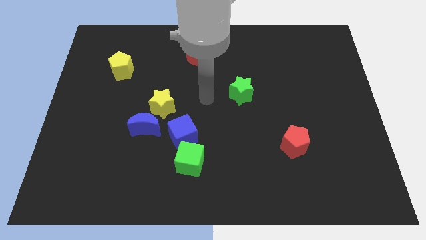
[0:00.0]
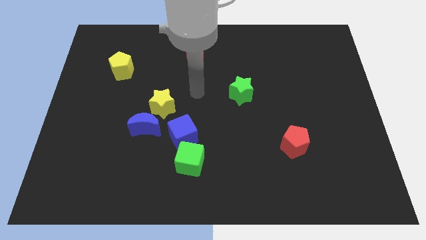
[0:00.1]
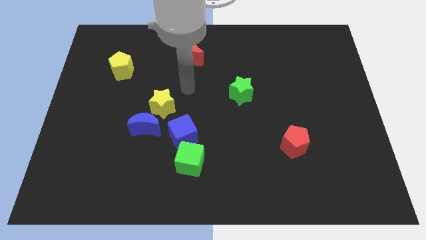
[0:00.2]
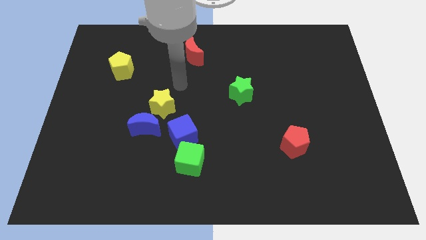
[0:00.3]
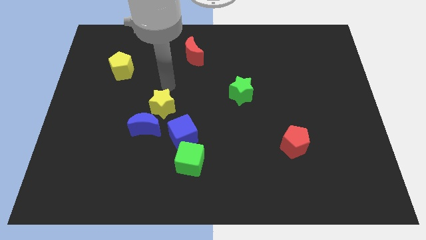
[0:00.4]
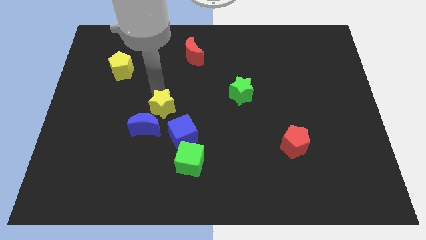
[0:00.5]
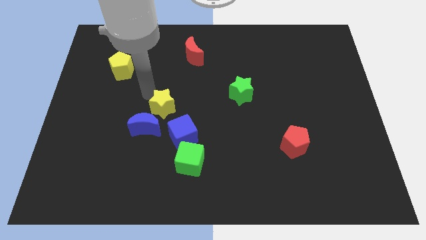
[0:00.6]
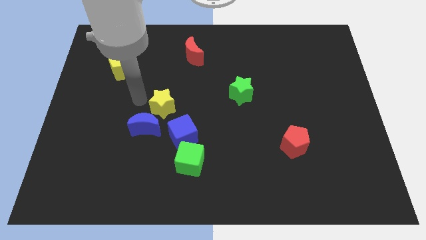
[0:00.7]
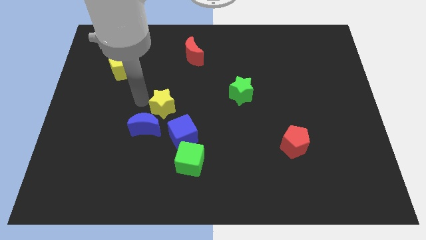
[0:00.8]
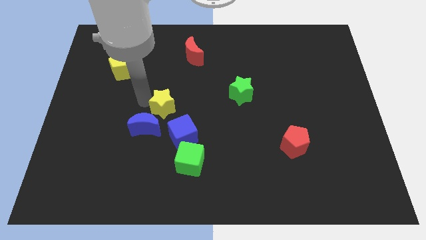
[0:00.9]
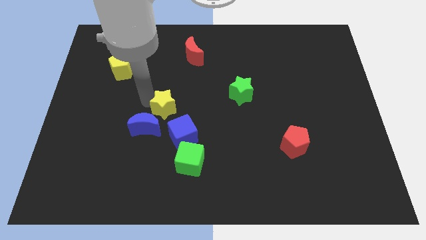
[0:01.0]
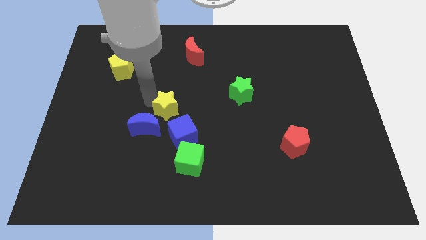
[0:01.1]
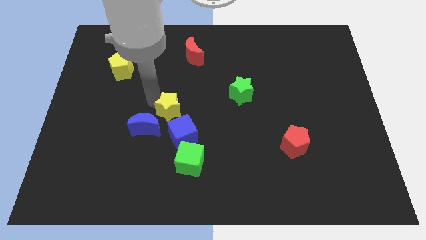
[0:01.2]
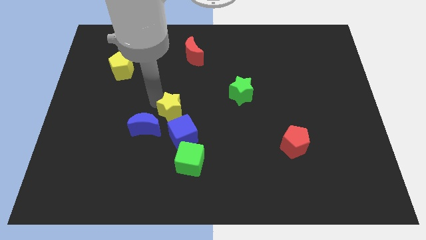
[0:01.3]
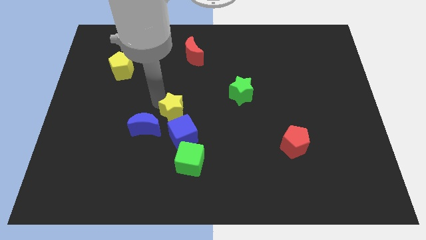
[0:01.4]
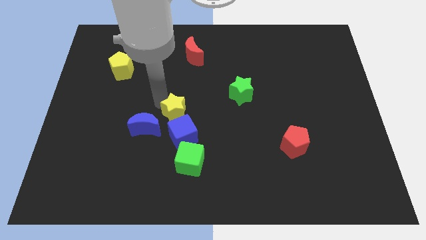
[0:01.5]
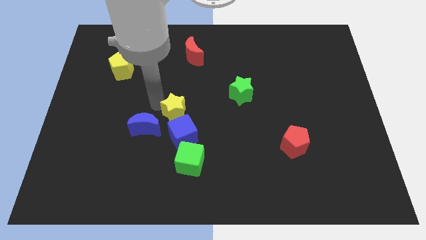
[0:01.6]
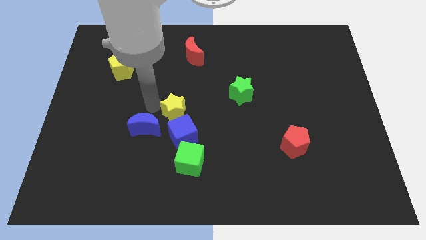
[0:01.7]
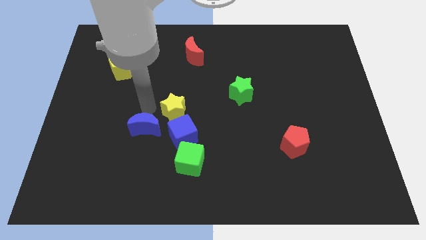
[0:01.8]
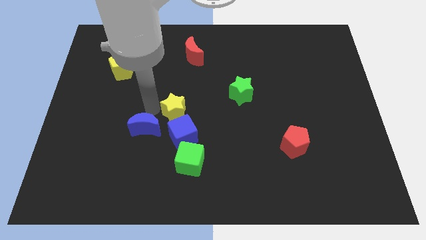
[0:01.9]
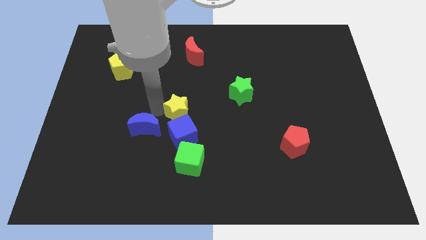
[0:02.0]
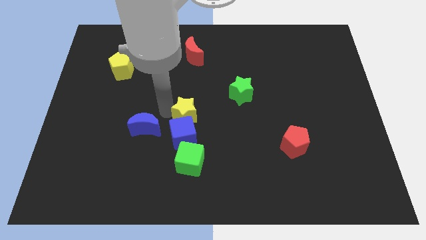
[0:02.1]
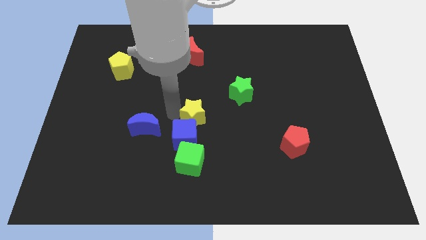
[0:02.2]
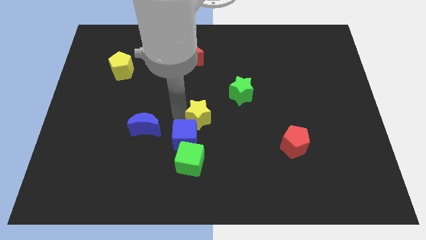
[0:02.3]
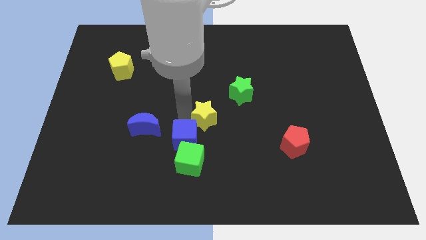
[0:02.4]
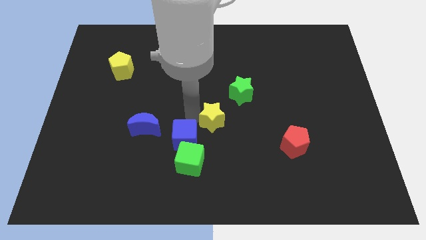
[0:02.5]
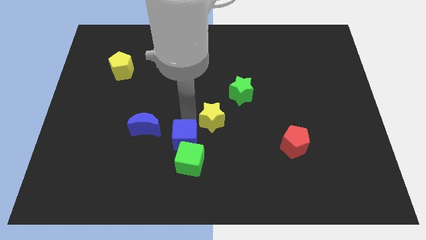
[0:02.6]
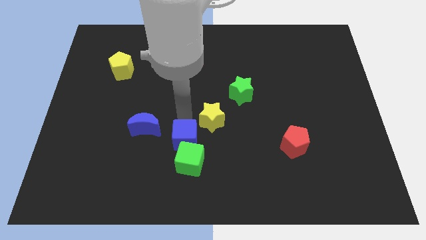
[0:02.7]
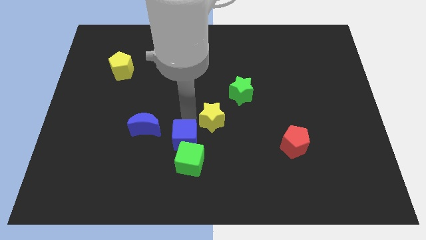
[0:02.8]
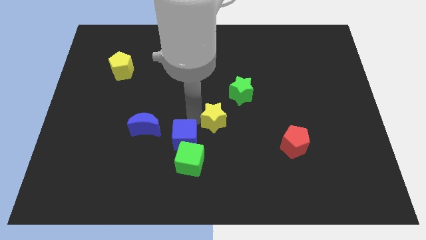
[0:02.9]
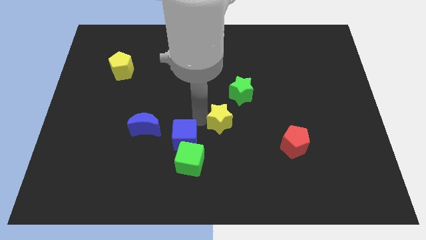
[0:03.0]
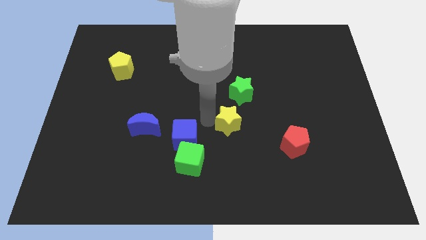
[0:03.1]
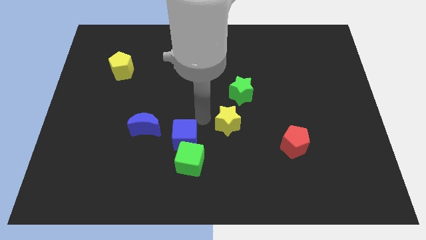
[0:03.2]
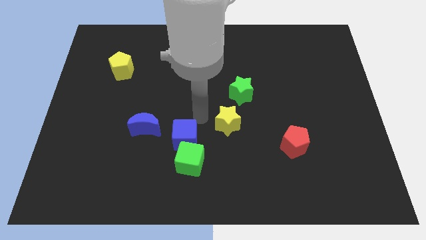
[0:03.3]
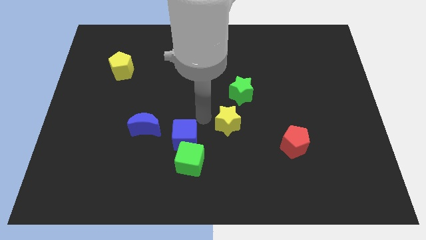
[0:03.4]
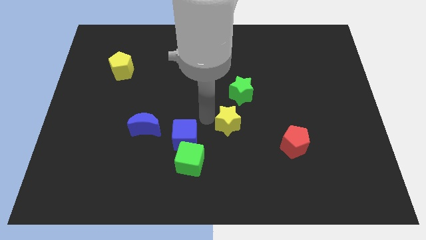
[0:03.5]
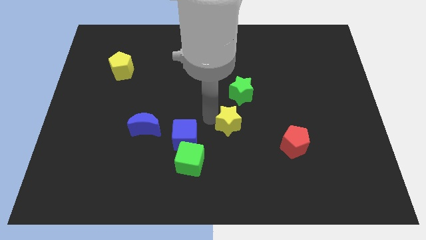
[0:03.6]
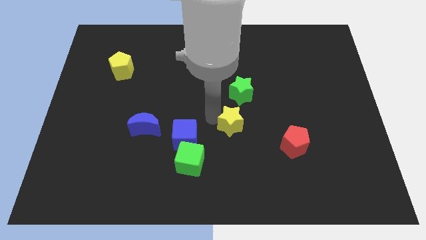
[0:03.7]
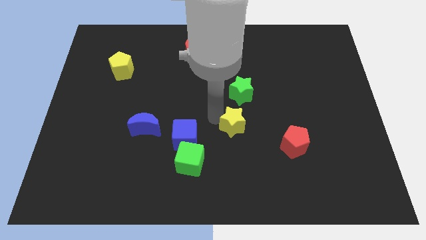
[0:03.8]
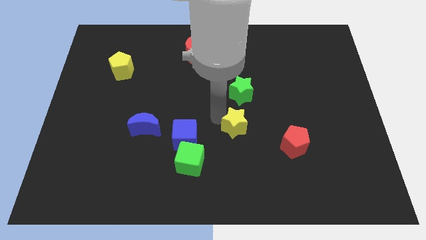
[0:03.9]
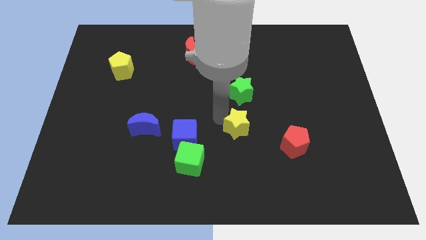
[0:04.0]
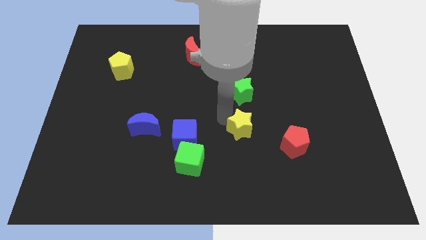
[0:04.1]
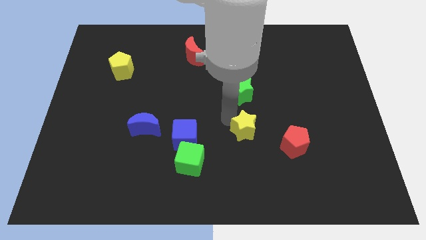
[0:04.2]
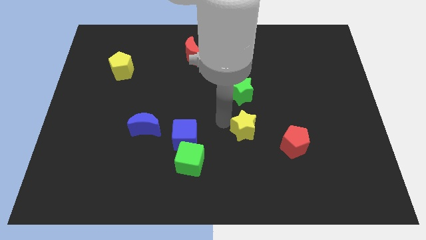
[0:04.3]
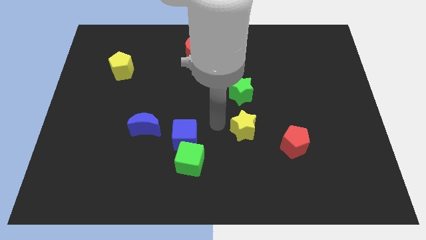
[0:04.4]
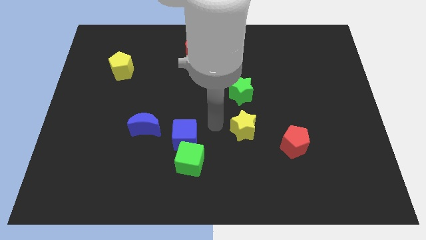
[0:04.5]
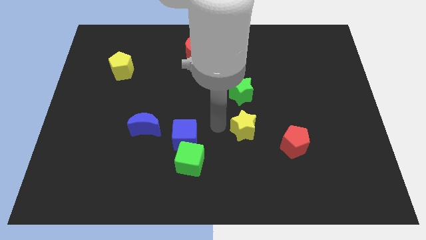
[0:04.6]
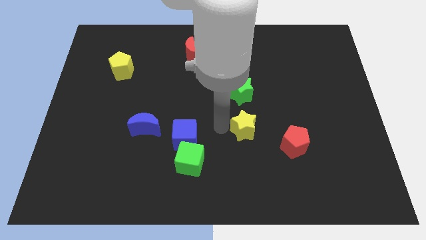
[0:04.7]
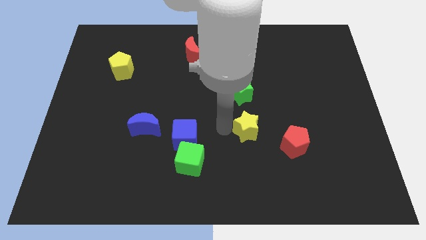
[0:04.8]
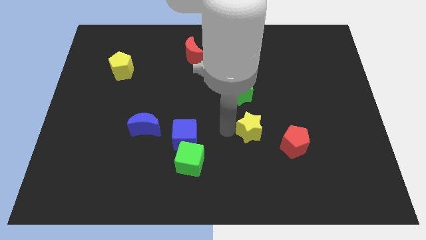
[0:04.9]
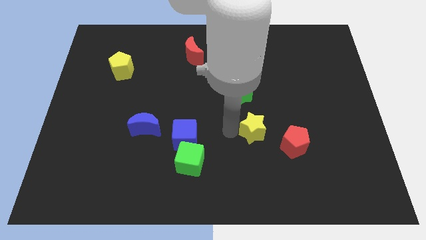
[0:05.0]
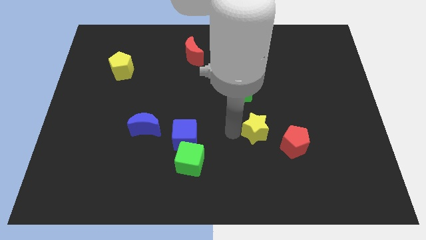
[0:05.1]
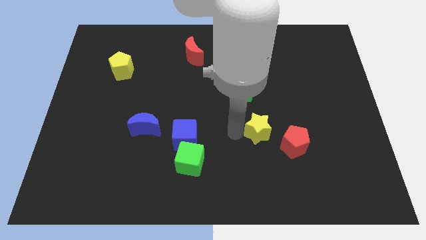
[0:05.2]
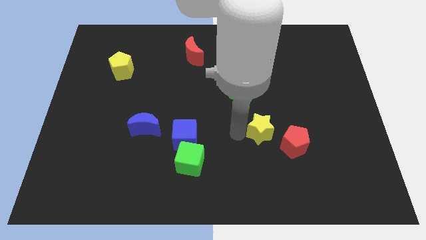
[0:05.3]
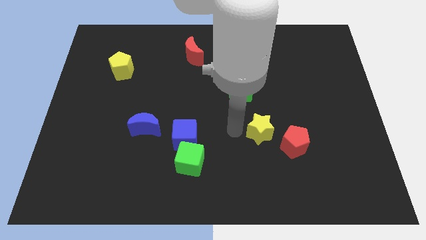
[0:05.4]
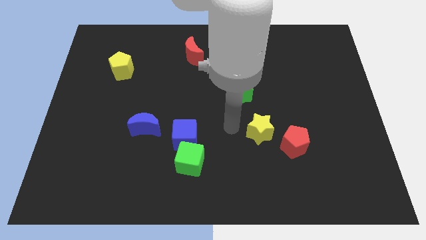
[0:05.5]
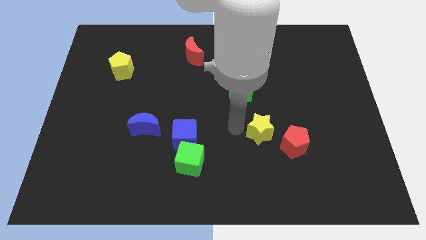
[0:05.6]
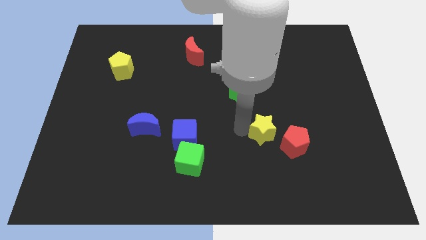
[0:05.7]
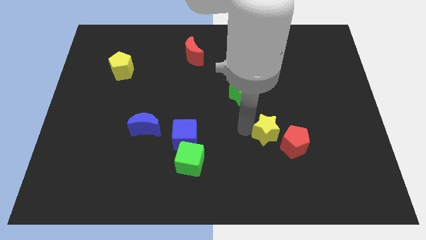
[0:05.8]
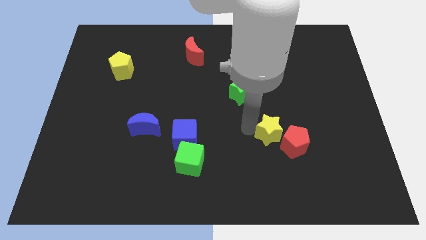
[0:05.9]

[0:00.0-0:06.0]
move the yellow star next to the red pentagon

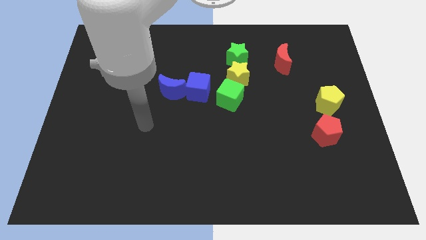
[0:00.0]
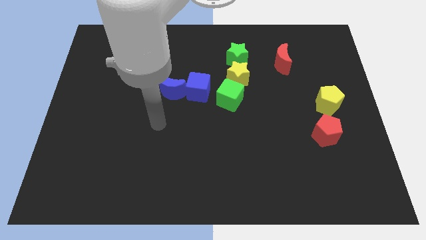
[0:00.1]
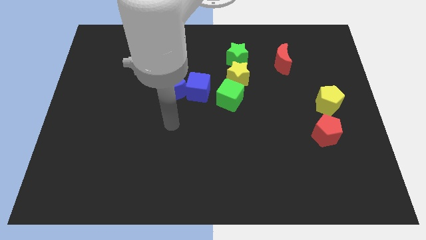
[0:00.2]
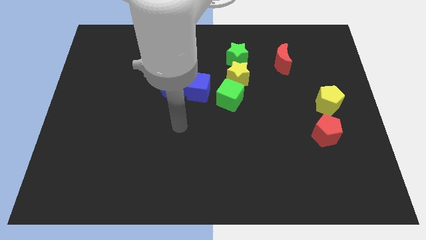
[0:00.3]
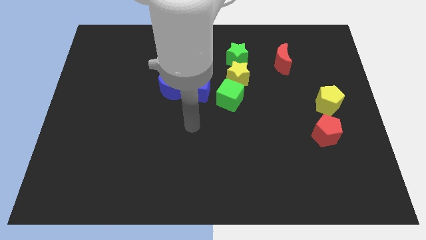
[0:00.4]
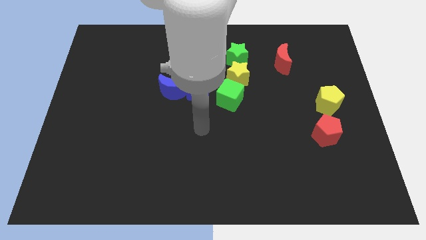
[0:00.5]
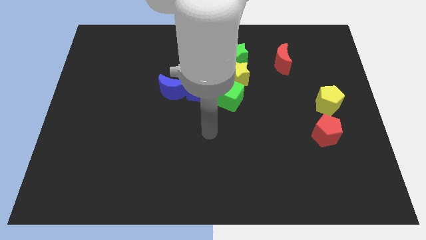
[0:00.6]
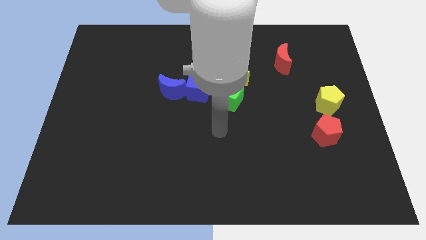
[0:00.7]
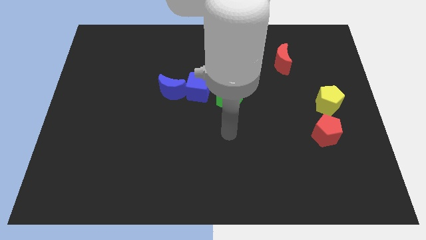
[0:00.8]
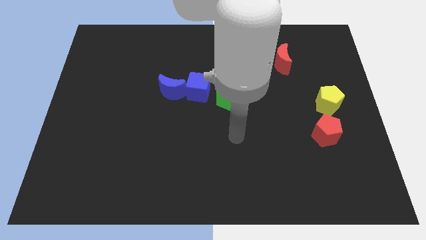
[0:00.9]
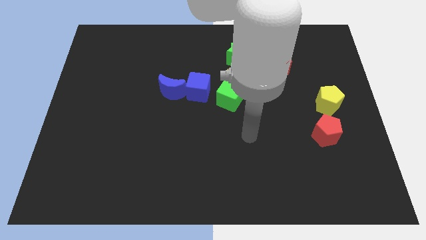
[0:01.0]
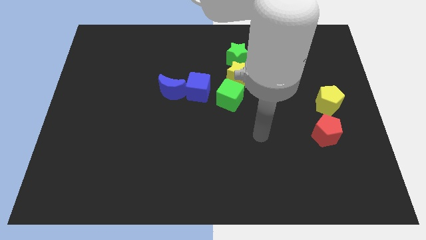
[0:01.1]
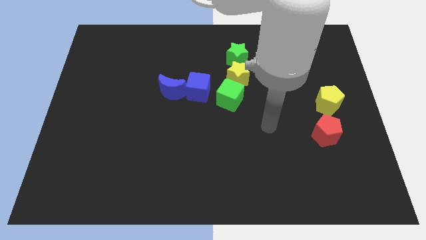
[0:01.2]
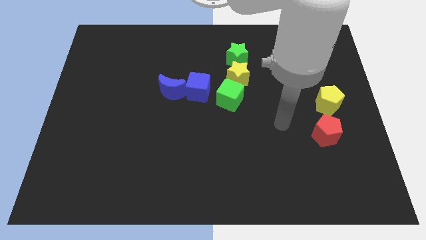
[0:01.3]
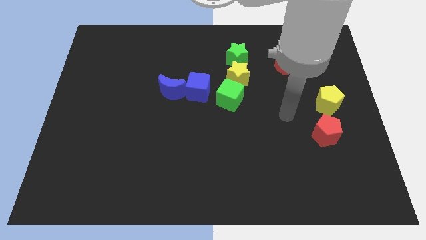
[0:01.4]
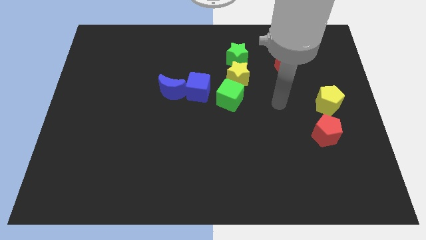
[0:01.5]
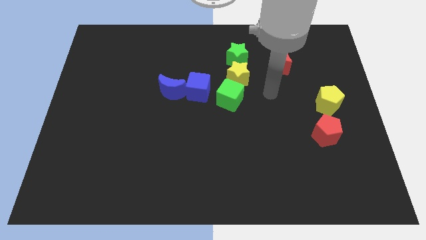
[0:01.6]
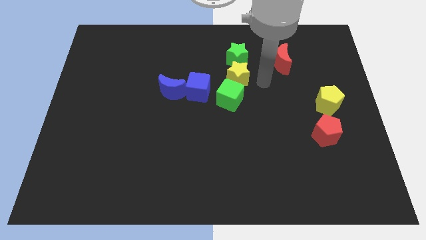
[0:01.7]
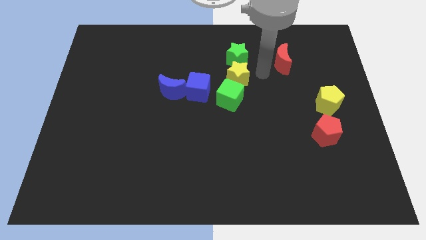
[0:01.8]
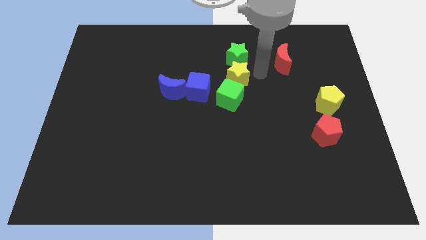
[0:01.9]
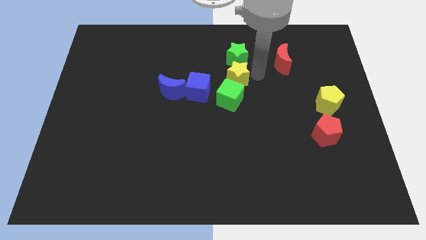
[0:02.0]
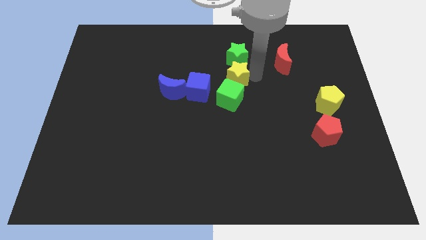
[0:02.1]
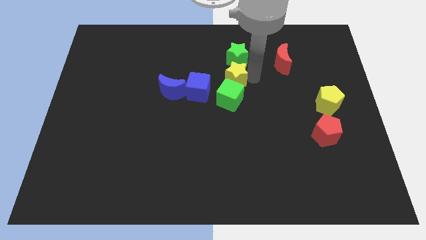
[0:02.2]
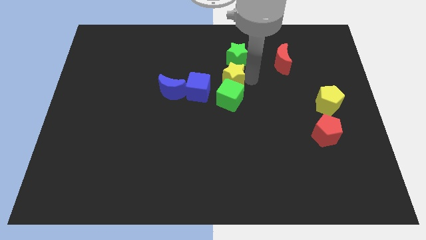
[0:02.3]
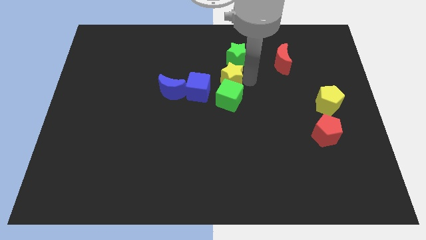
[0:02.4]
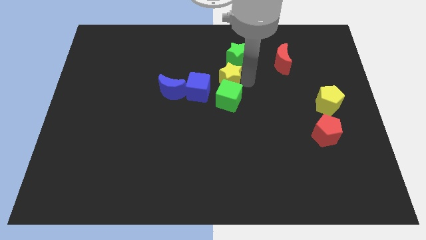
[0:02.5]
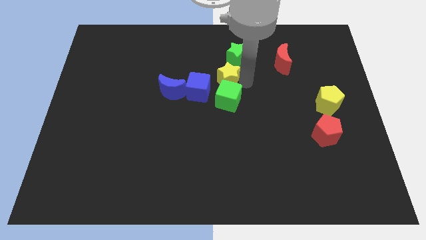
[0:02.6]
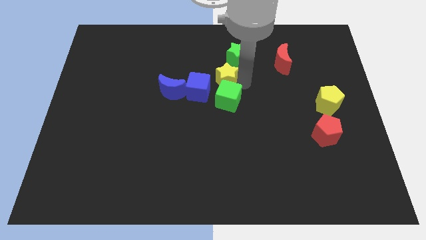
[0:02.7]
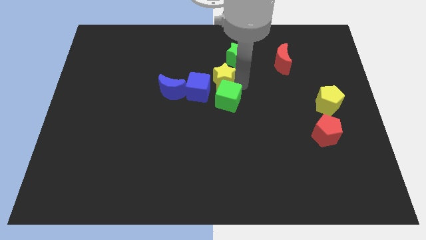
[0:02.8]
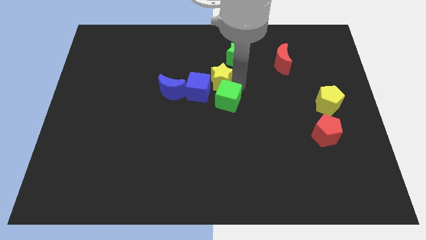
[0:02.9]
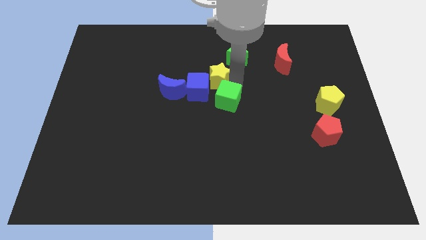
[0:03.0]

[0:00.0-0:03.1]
put the yellow star towards the blue cube
